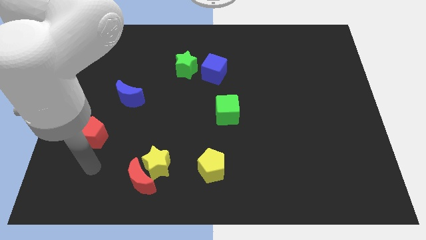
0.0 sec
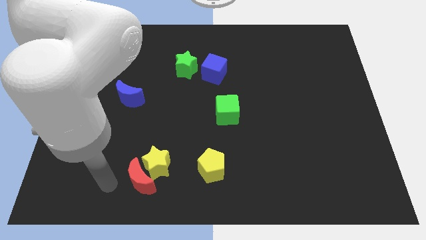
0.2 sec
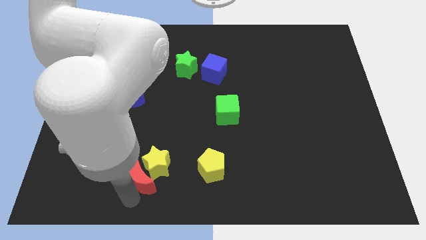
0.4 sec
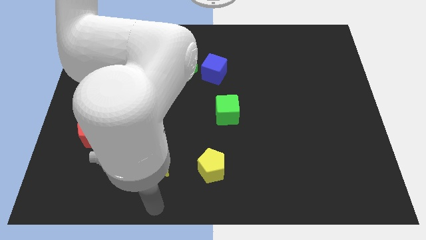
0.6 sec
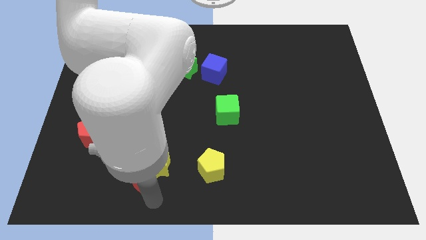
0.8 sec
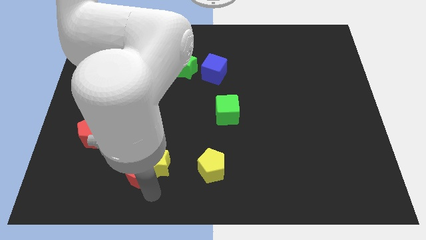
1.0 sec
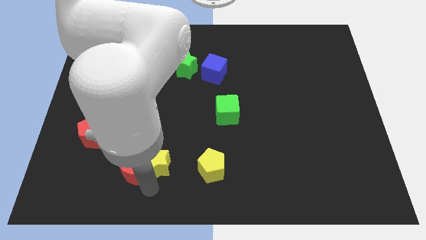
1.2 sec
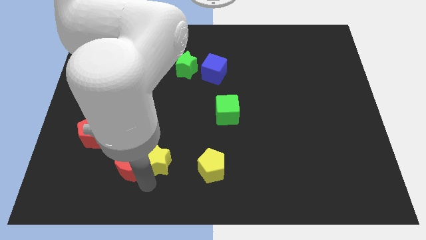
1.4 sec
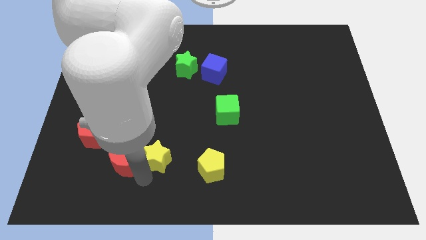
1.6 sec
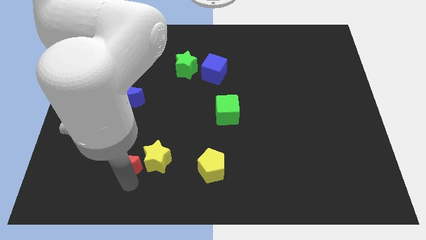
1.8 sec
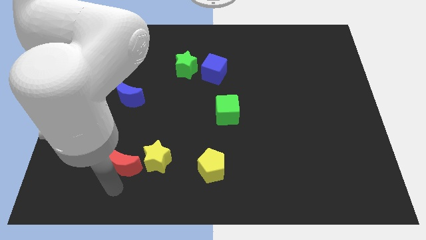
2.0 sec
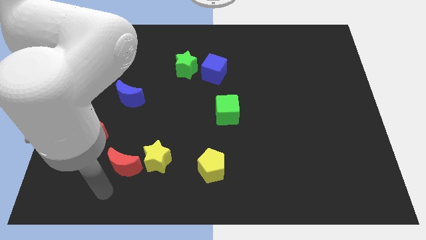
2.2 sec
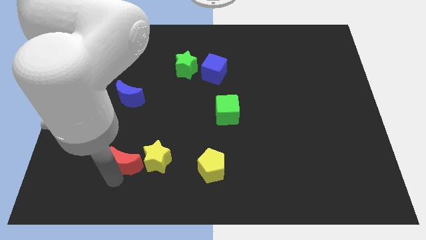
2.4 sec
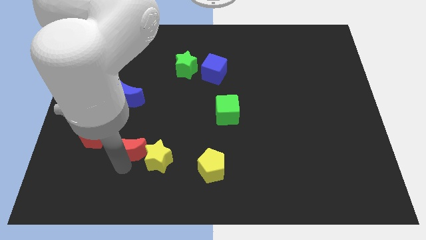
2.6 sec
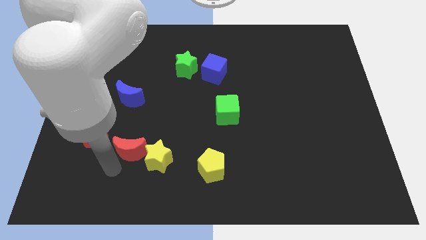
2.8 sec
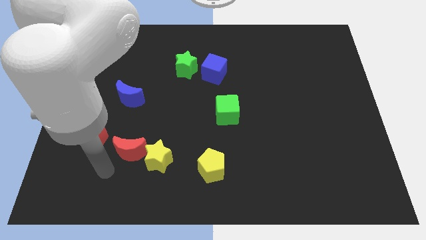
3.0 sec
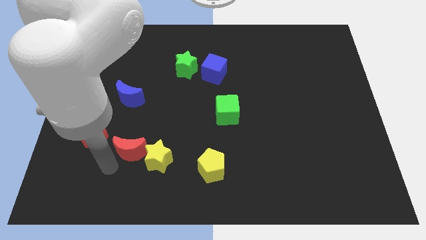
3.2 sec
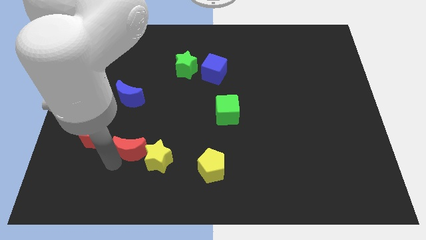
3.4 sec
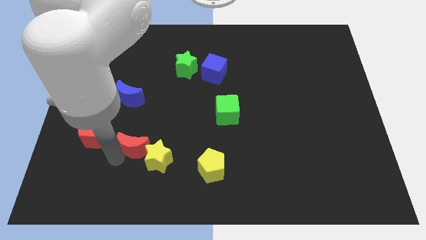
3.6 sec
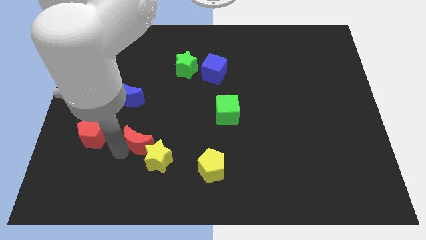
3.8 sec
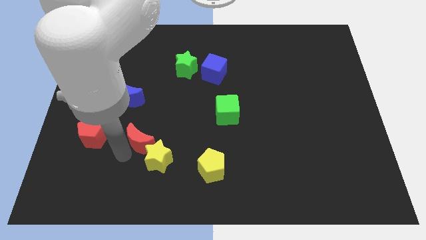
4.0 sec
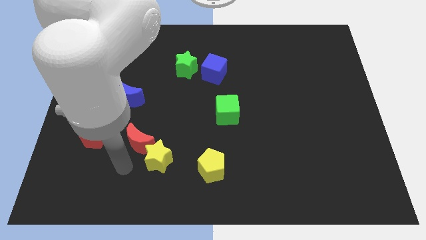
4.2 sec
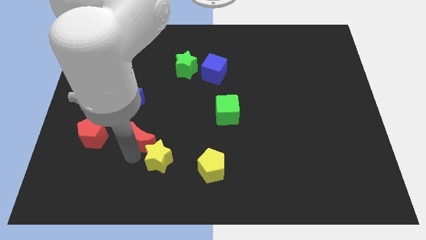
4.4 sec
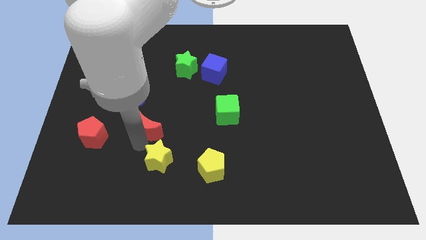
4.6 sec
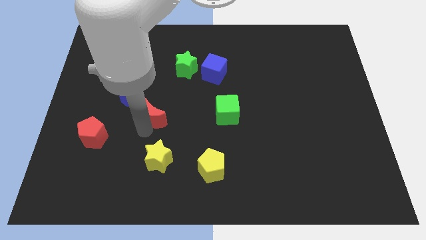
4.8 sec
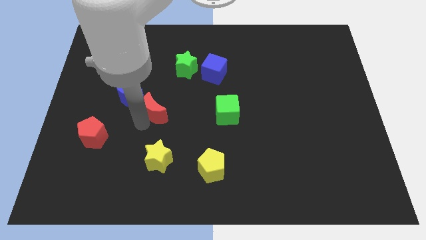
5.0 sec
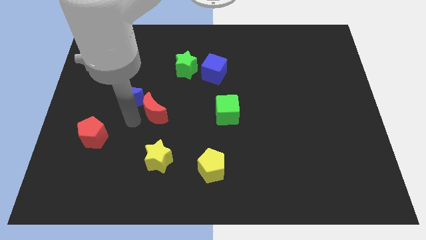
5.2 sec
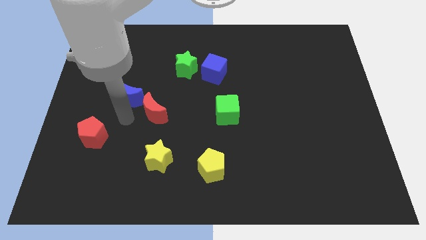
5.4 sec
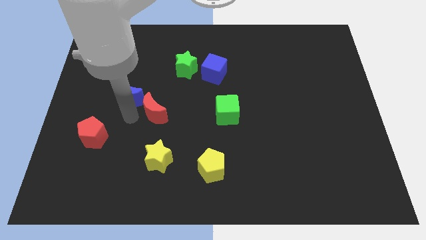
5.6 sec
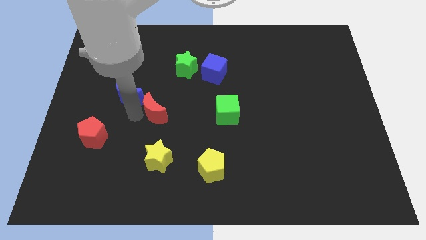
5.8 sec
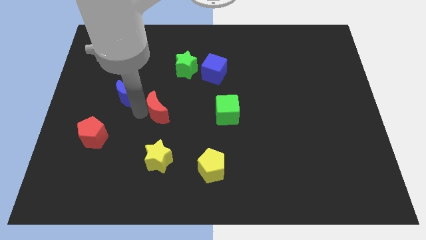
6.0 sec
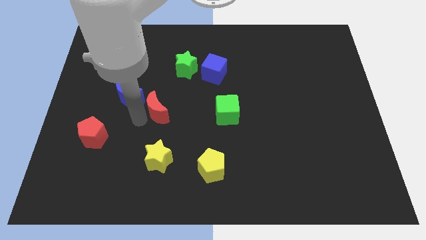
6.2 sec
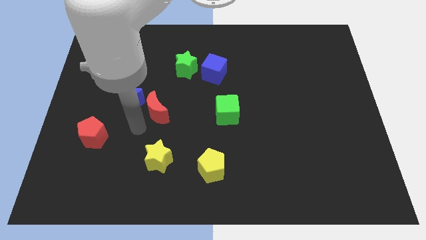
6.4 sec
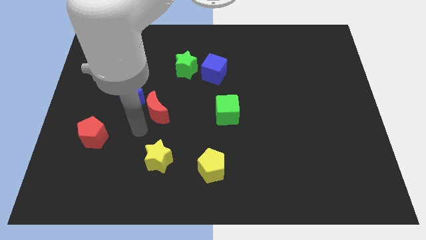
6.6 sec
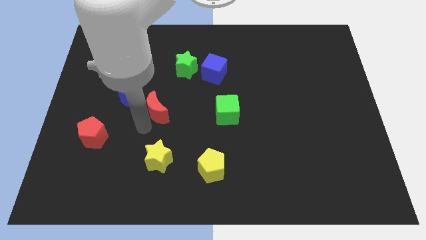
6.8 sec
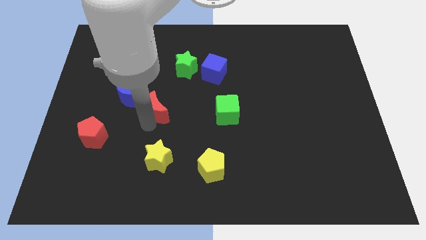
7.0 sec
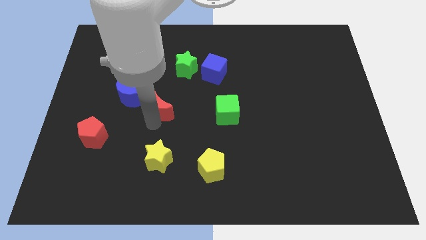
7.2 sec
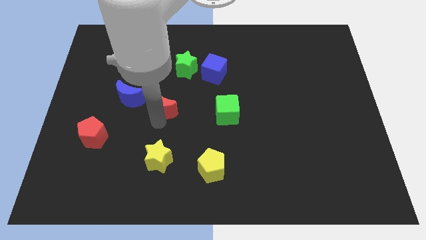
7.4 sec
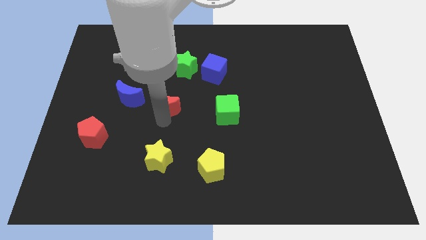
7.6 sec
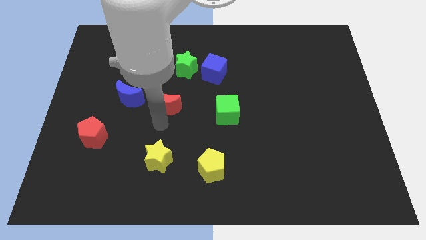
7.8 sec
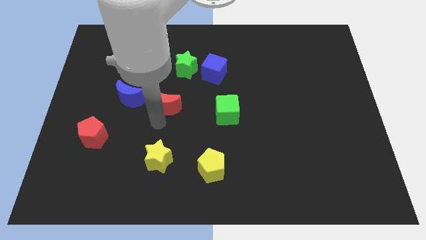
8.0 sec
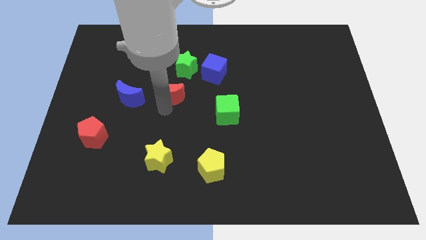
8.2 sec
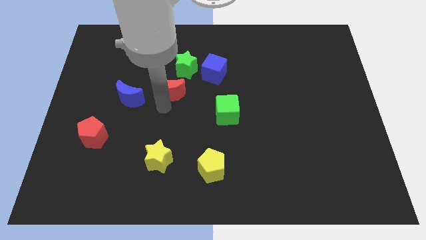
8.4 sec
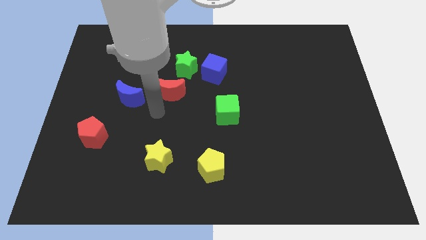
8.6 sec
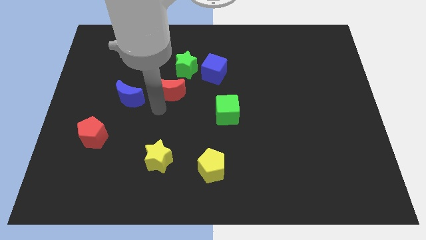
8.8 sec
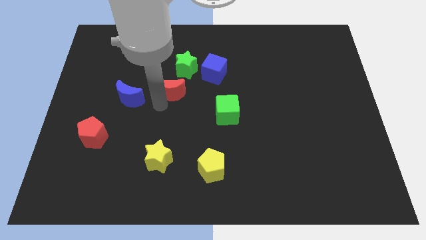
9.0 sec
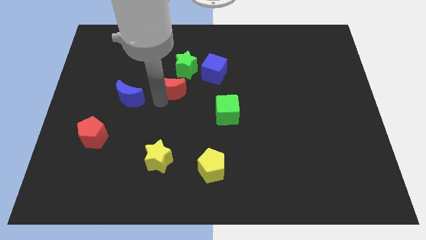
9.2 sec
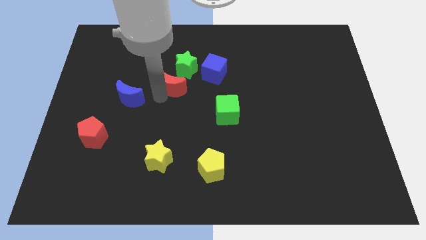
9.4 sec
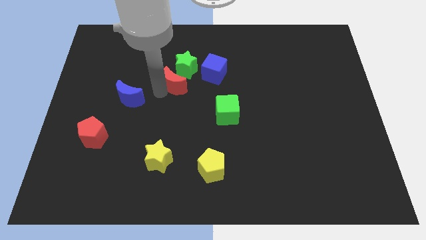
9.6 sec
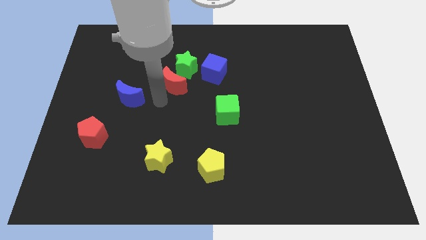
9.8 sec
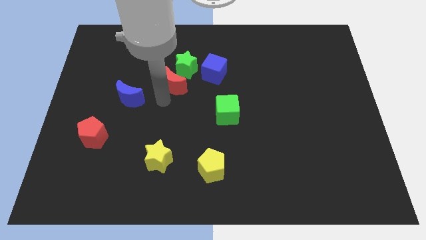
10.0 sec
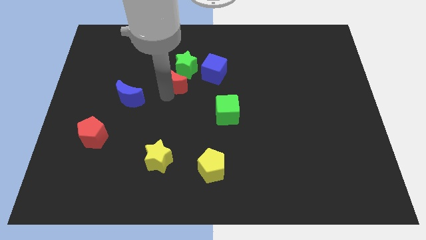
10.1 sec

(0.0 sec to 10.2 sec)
put the red moon to the green star

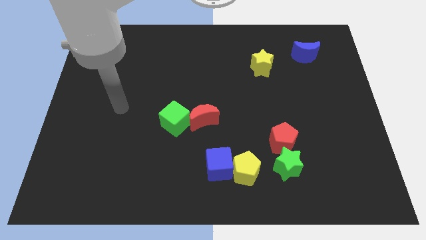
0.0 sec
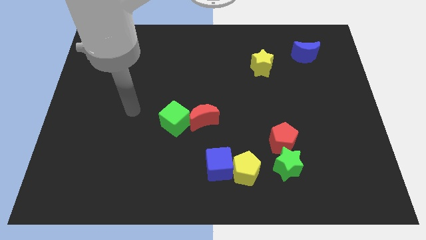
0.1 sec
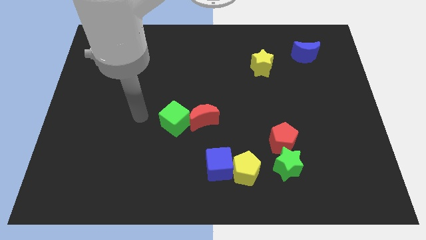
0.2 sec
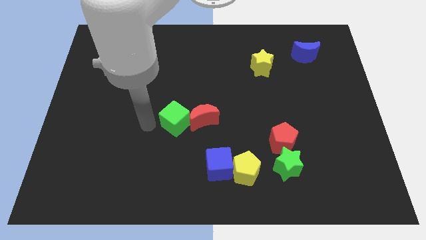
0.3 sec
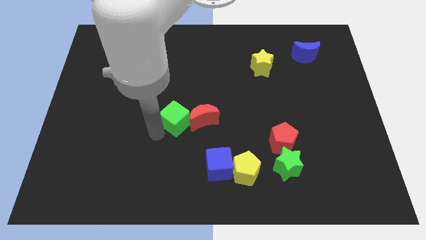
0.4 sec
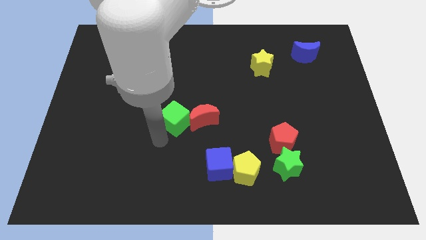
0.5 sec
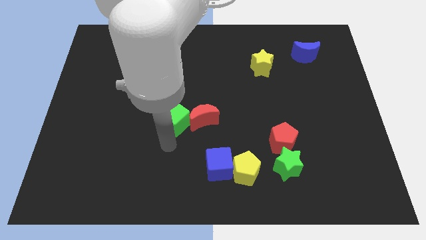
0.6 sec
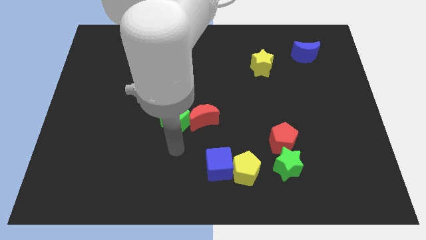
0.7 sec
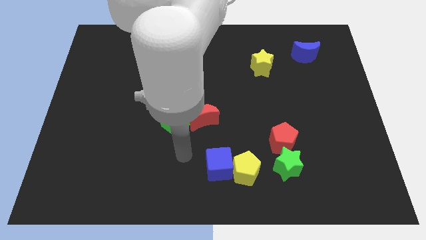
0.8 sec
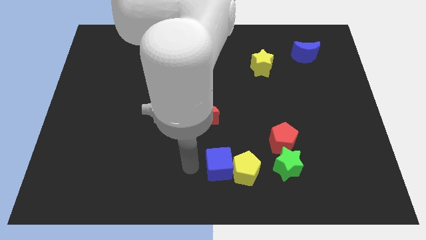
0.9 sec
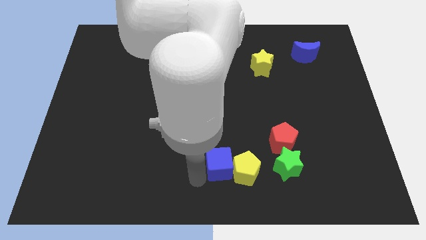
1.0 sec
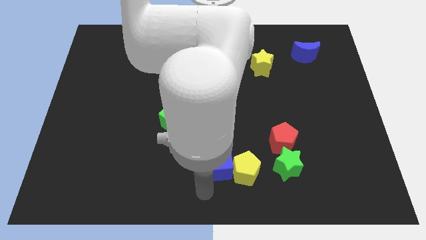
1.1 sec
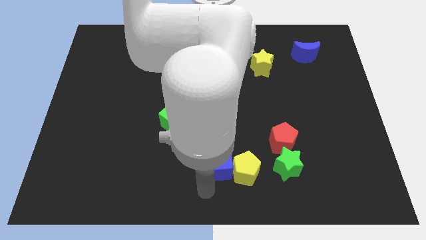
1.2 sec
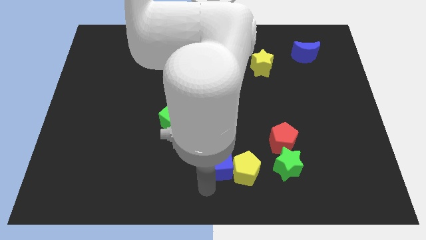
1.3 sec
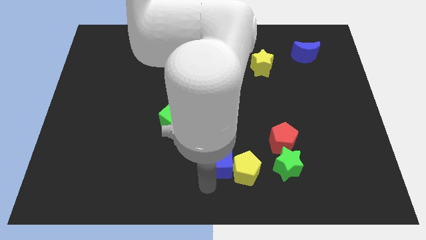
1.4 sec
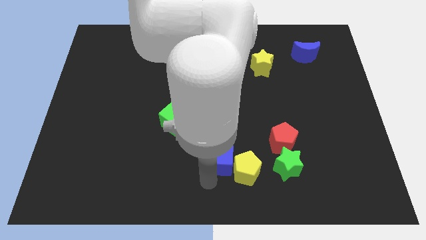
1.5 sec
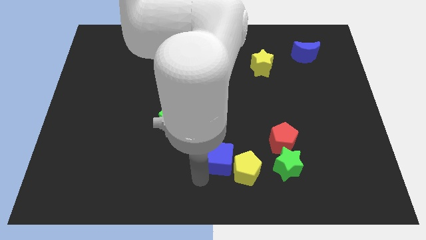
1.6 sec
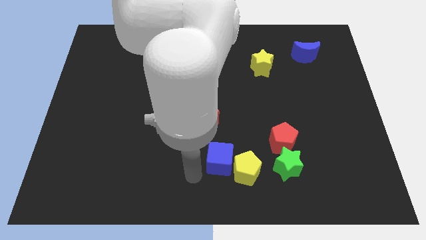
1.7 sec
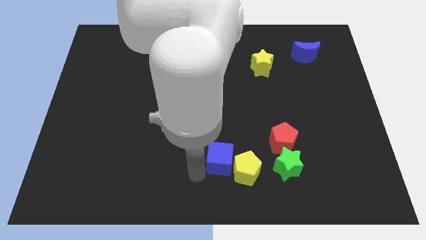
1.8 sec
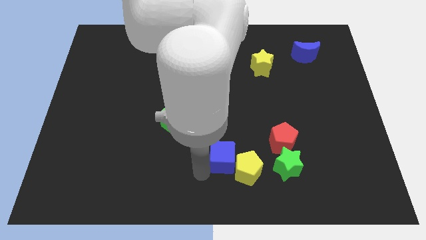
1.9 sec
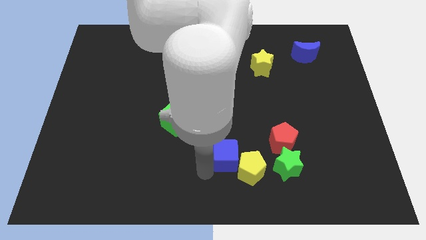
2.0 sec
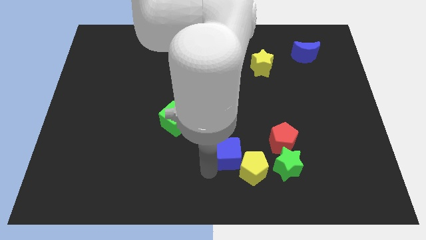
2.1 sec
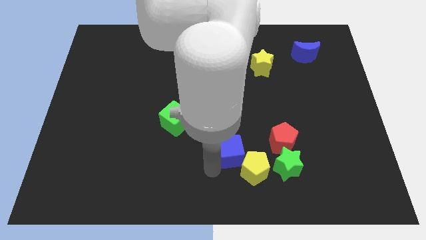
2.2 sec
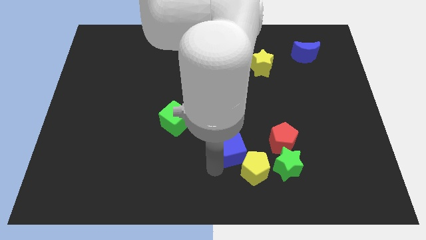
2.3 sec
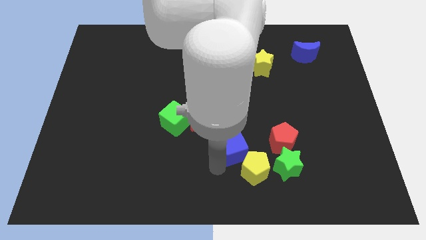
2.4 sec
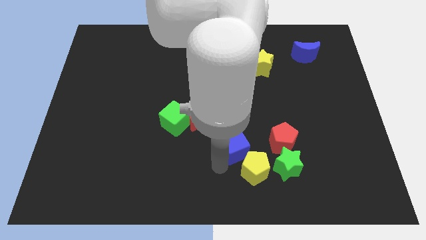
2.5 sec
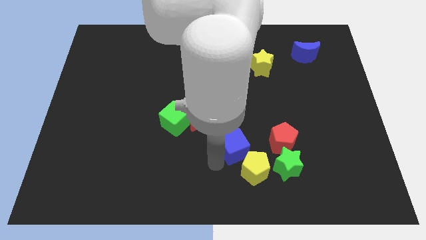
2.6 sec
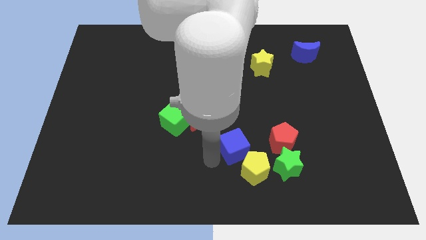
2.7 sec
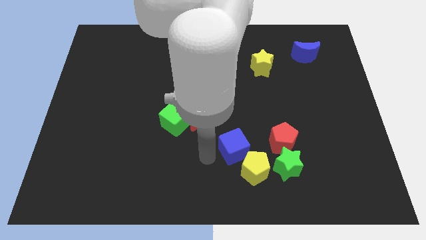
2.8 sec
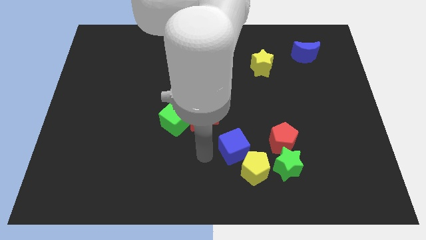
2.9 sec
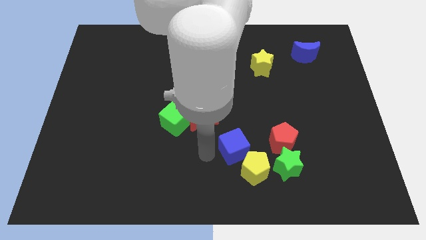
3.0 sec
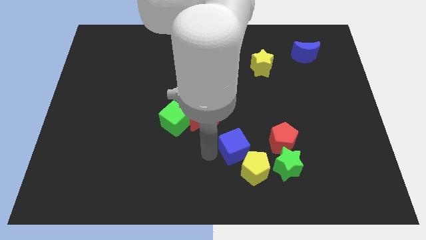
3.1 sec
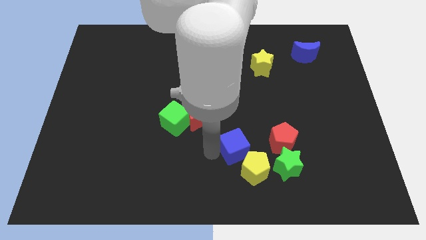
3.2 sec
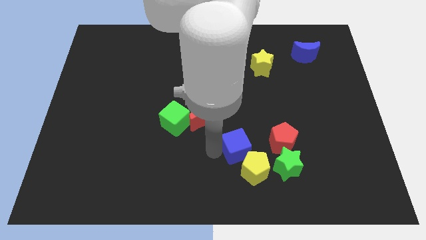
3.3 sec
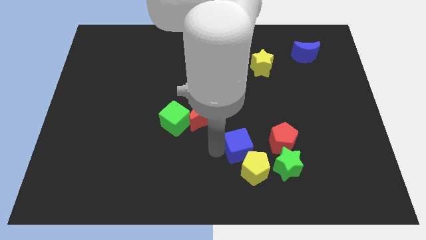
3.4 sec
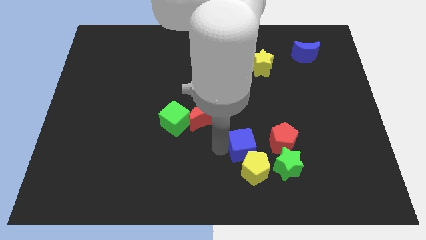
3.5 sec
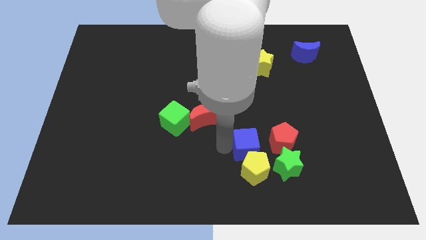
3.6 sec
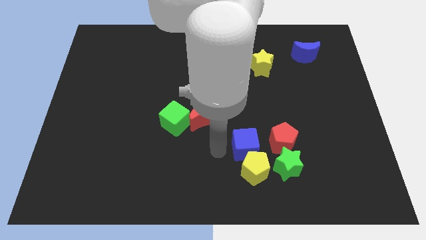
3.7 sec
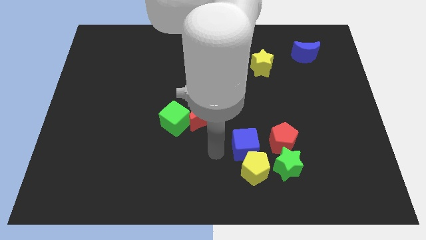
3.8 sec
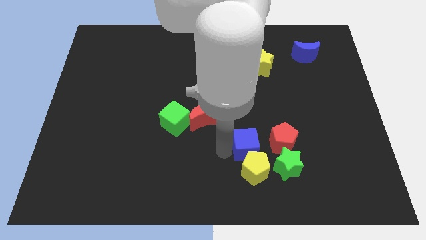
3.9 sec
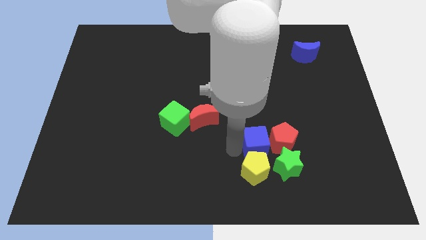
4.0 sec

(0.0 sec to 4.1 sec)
push the blue cube towards the red pentagon
